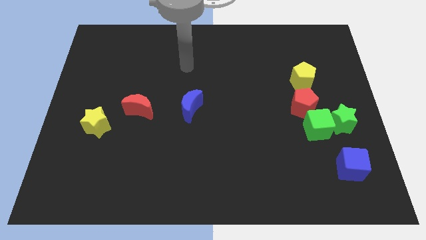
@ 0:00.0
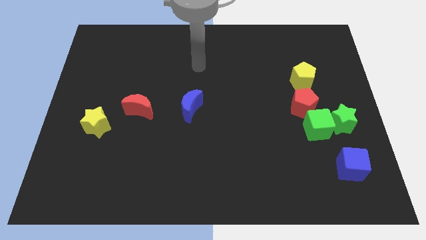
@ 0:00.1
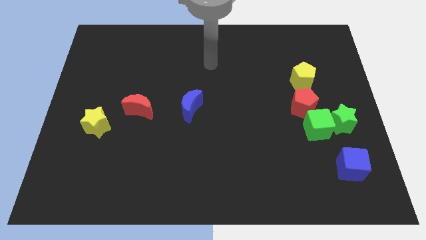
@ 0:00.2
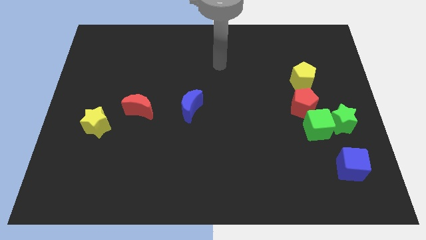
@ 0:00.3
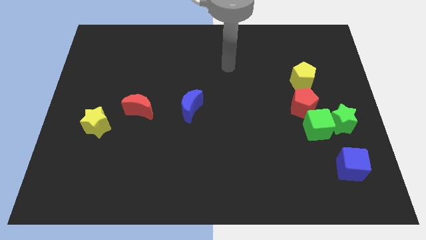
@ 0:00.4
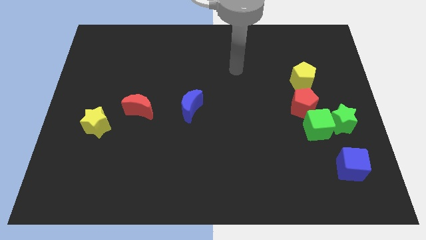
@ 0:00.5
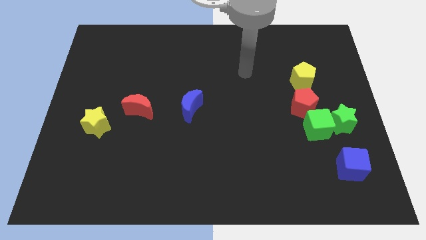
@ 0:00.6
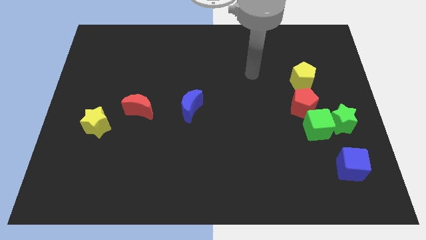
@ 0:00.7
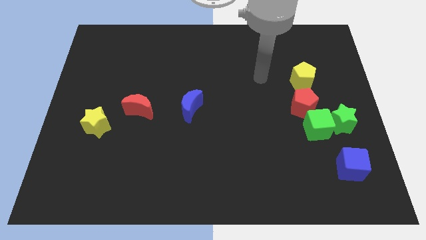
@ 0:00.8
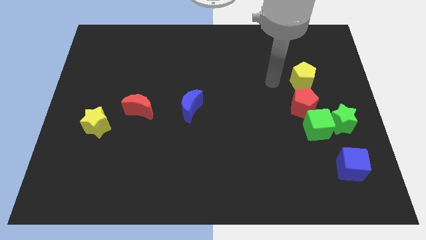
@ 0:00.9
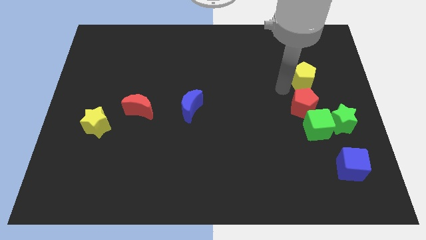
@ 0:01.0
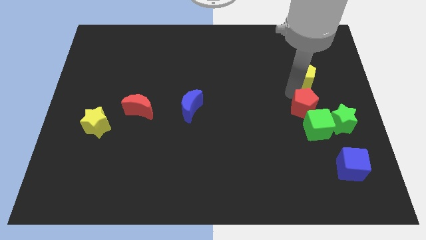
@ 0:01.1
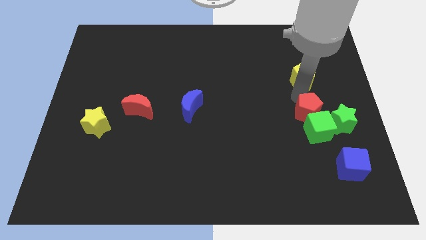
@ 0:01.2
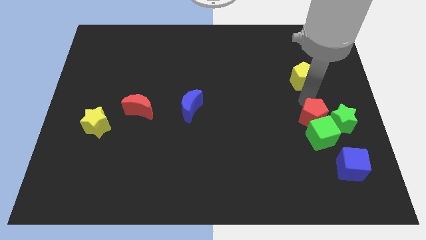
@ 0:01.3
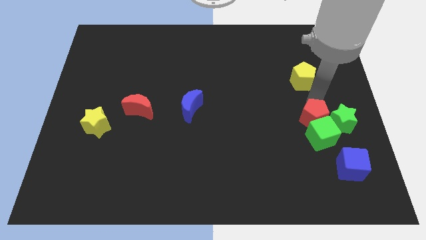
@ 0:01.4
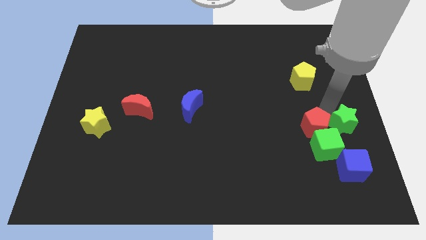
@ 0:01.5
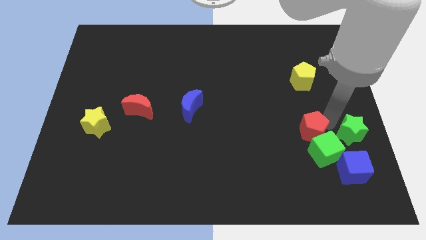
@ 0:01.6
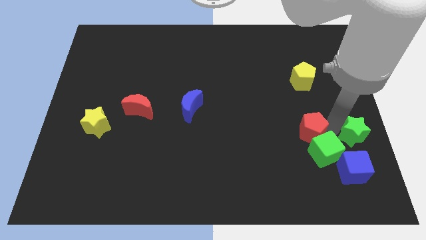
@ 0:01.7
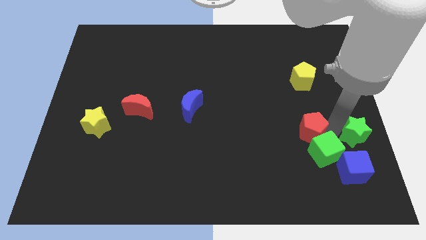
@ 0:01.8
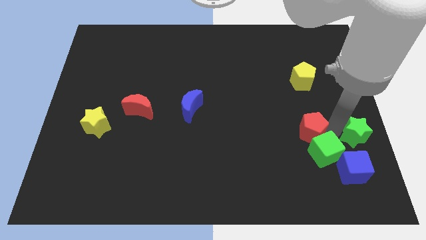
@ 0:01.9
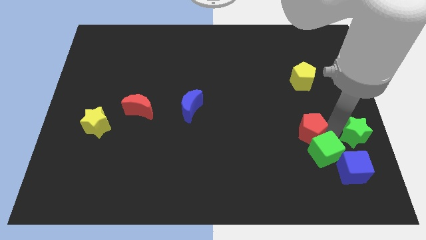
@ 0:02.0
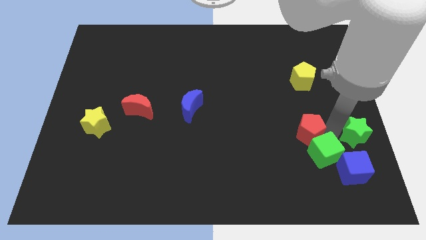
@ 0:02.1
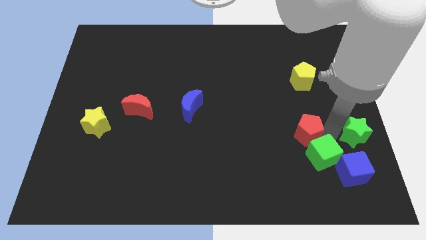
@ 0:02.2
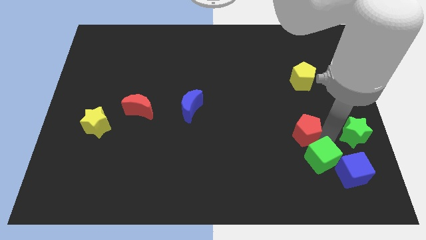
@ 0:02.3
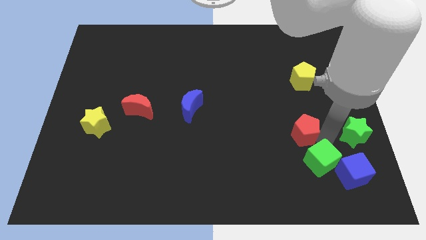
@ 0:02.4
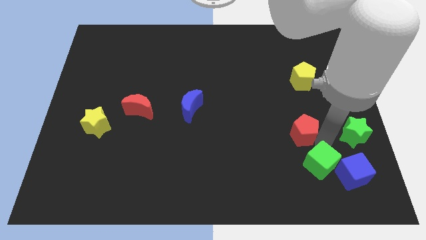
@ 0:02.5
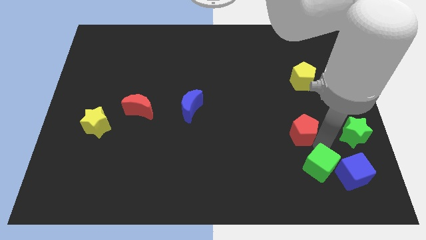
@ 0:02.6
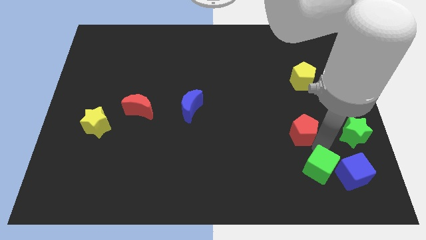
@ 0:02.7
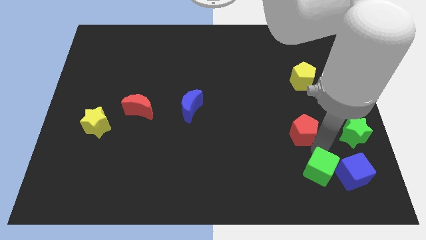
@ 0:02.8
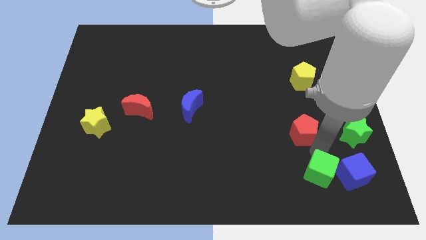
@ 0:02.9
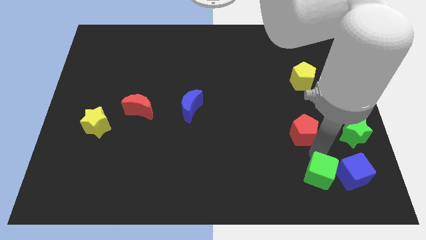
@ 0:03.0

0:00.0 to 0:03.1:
pull the green cube apart from the green star and red pentagon

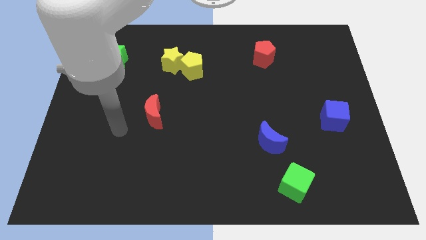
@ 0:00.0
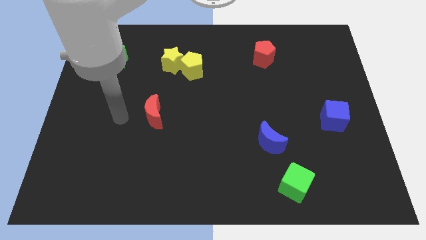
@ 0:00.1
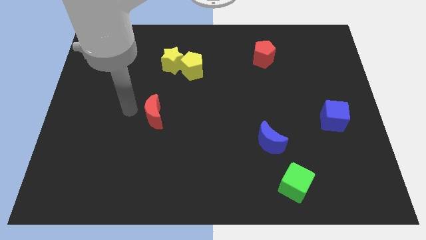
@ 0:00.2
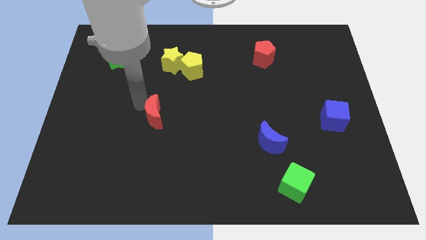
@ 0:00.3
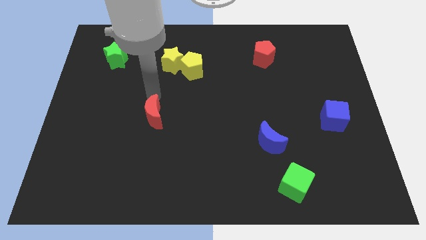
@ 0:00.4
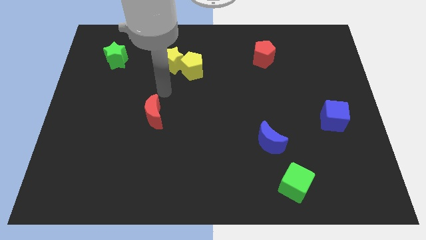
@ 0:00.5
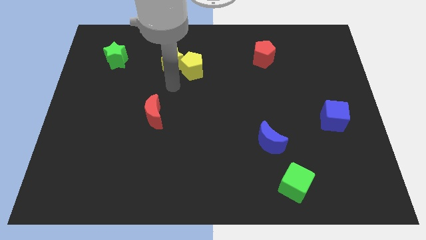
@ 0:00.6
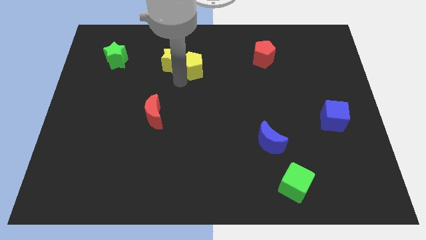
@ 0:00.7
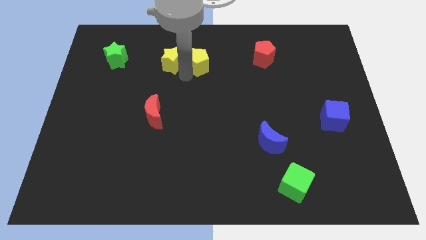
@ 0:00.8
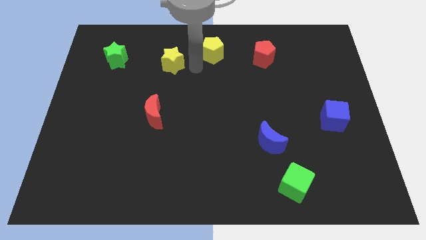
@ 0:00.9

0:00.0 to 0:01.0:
pull the yellow star apart from the yellow pentagon

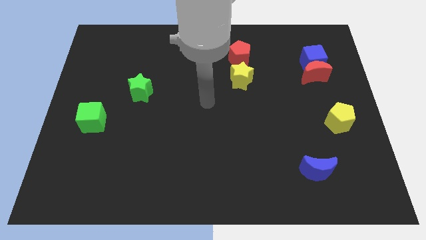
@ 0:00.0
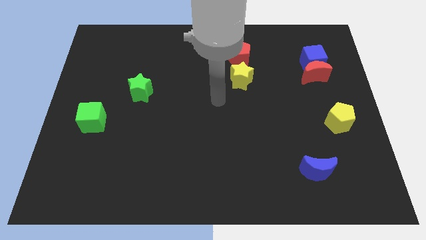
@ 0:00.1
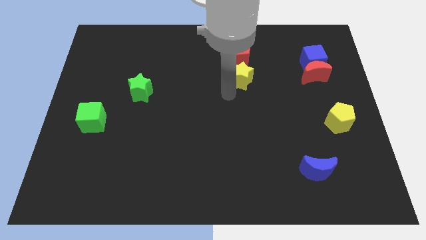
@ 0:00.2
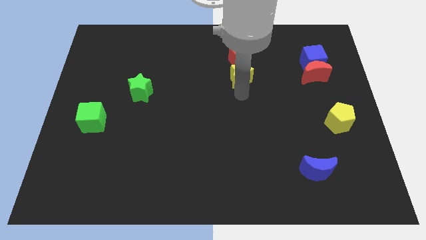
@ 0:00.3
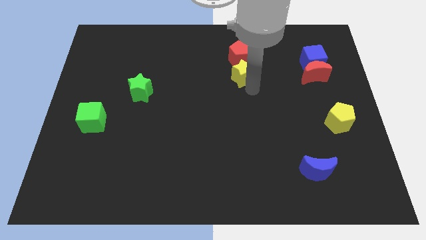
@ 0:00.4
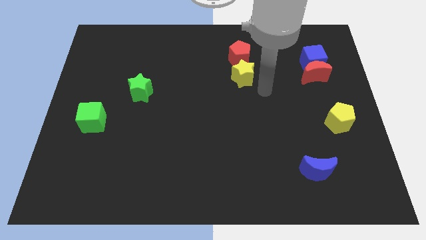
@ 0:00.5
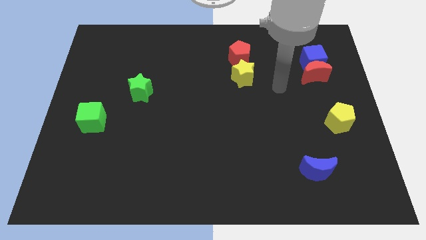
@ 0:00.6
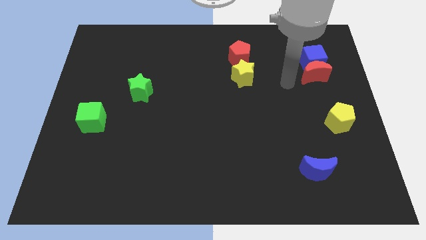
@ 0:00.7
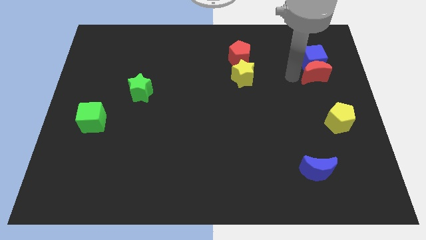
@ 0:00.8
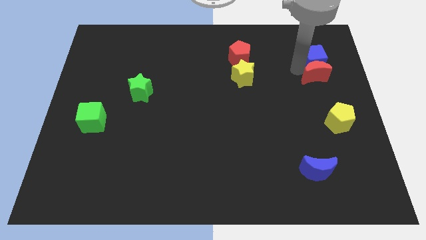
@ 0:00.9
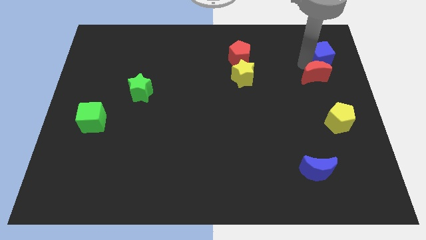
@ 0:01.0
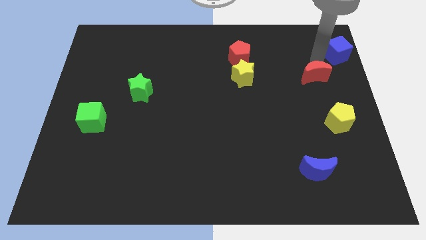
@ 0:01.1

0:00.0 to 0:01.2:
move the red moon away from the blue cube

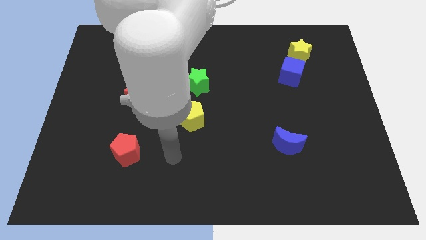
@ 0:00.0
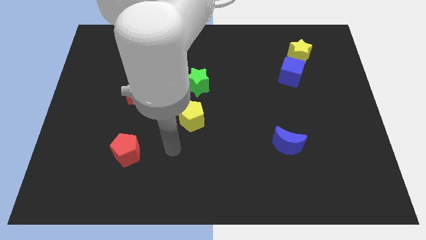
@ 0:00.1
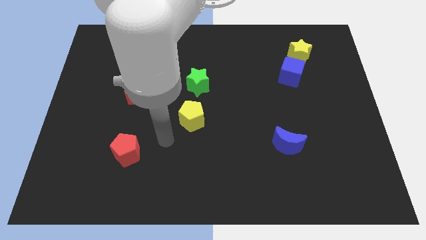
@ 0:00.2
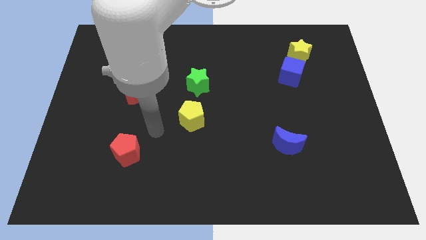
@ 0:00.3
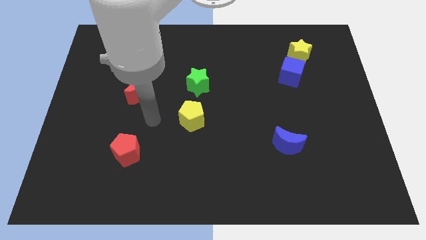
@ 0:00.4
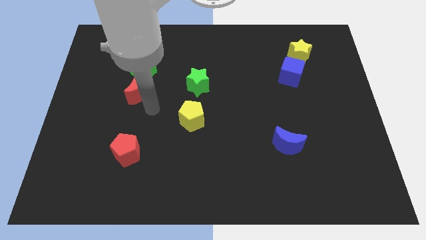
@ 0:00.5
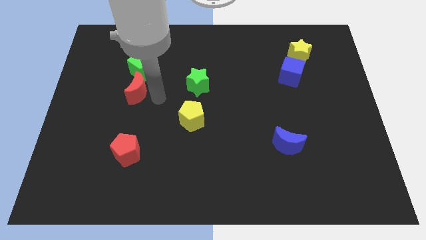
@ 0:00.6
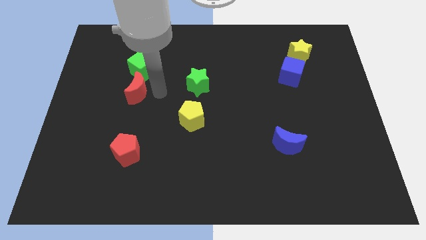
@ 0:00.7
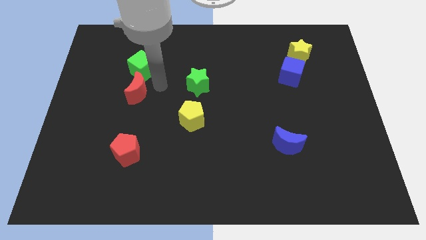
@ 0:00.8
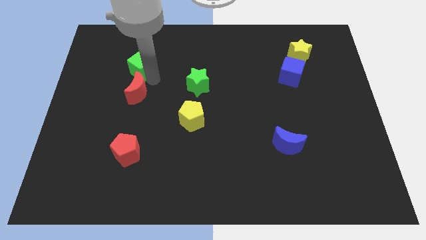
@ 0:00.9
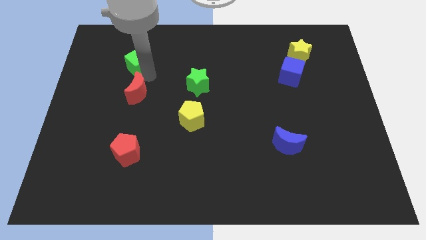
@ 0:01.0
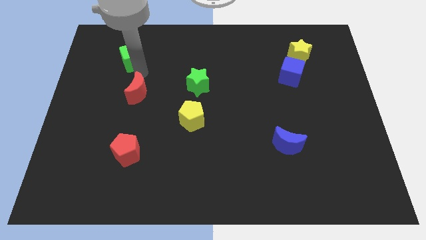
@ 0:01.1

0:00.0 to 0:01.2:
separate the red moon from the green cube

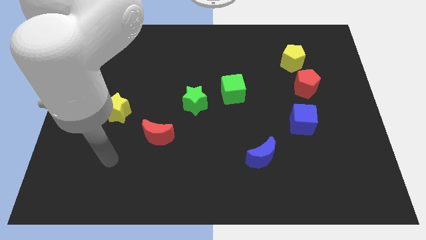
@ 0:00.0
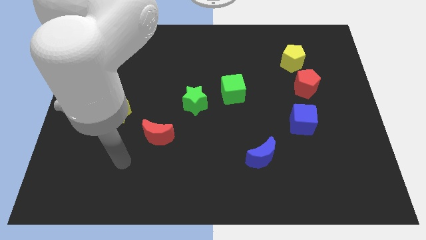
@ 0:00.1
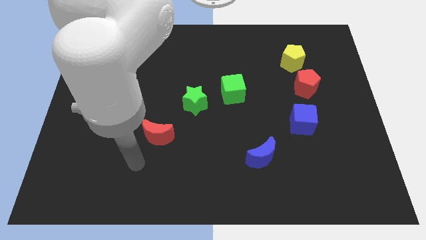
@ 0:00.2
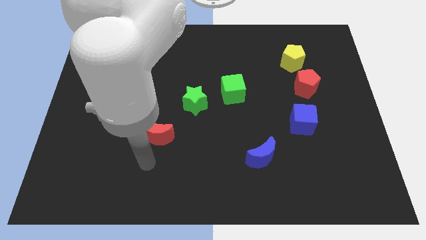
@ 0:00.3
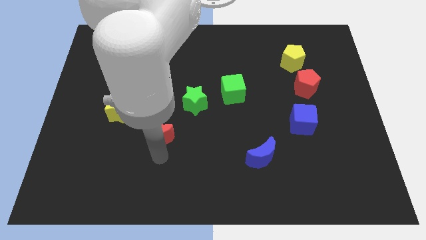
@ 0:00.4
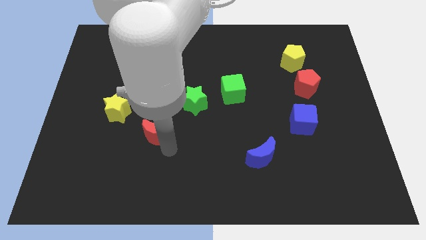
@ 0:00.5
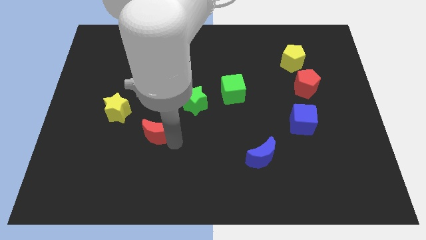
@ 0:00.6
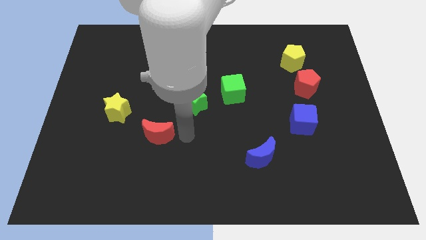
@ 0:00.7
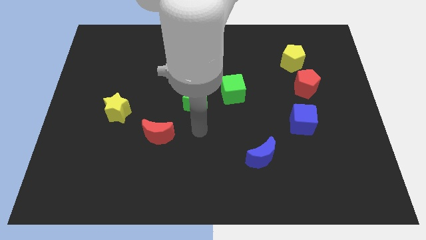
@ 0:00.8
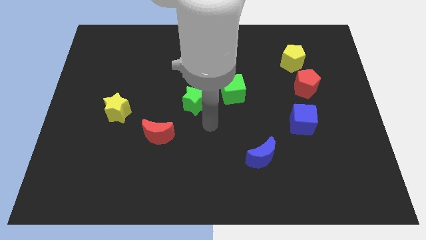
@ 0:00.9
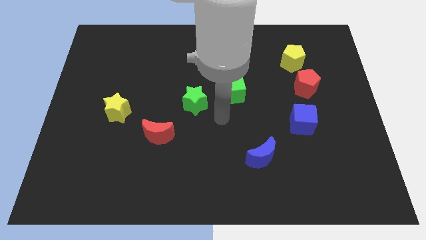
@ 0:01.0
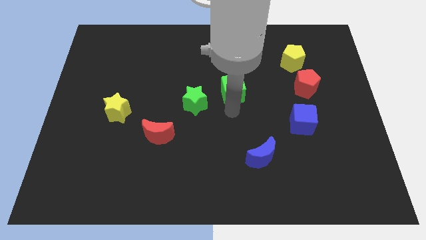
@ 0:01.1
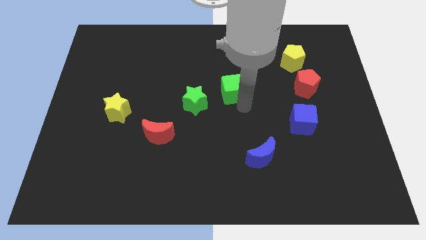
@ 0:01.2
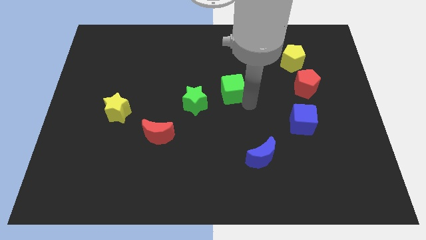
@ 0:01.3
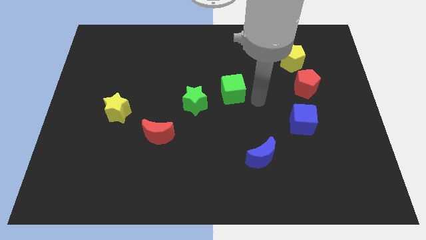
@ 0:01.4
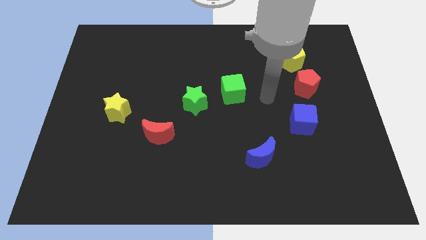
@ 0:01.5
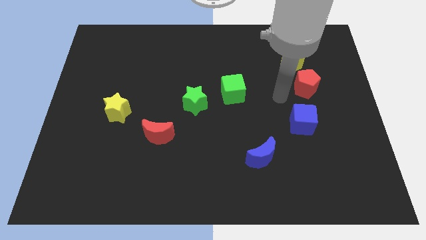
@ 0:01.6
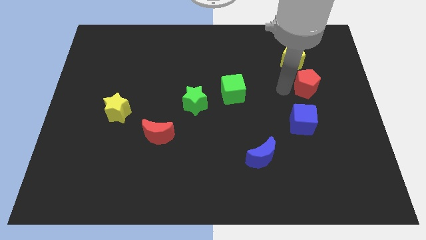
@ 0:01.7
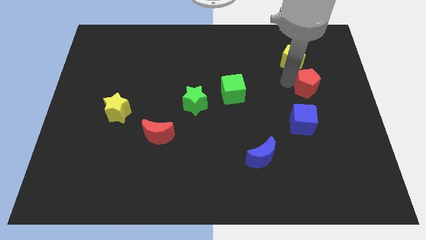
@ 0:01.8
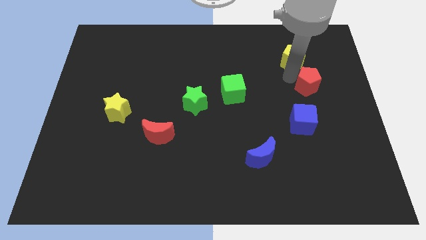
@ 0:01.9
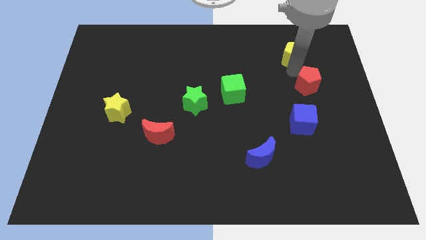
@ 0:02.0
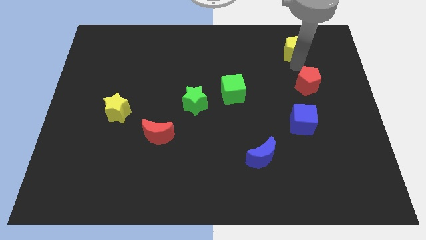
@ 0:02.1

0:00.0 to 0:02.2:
move the red pentagon away from the yellow pentagon

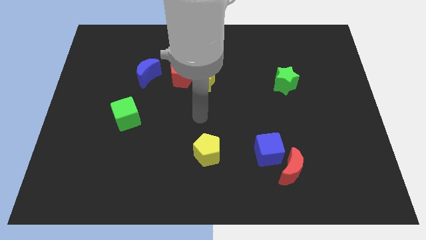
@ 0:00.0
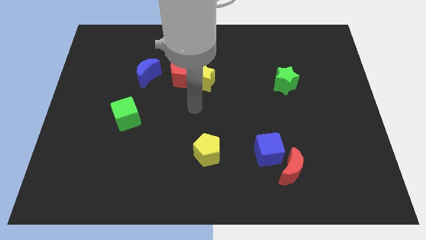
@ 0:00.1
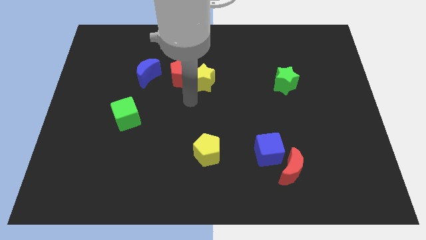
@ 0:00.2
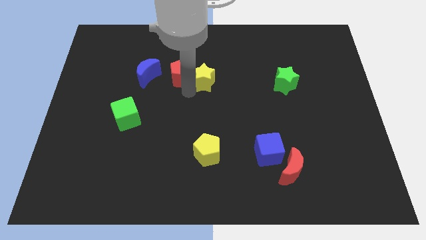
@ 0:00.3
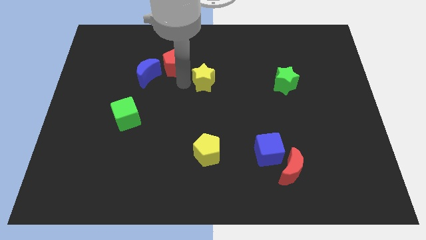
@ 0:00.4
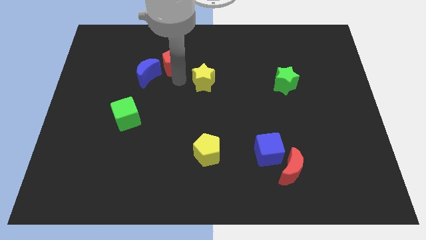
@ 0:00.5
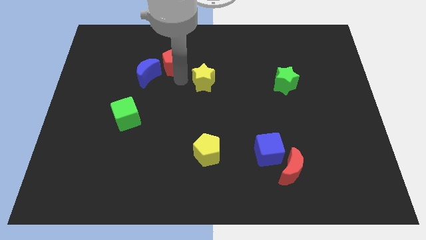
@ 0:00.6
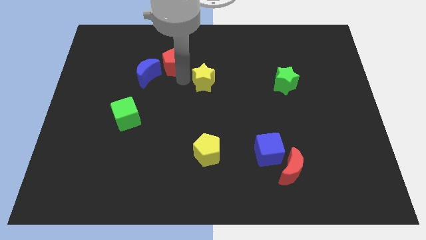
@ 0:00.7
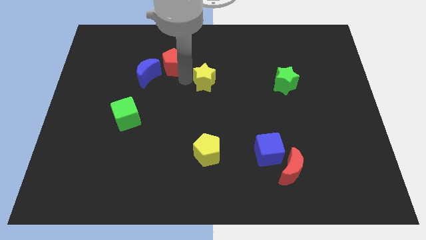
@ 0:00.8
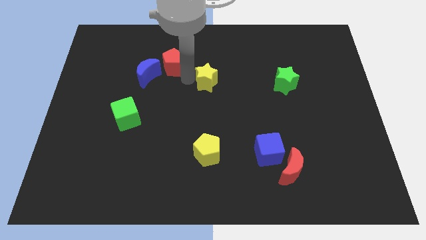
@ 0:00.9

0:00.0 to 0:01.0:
pull the yellow star apart from the red pentagon
